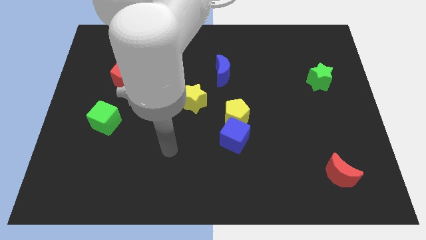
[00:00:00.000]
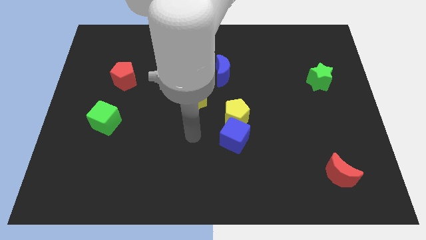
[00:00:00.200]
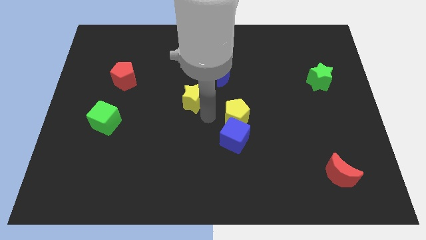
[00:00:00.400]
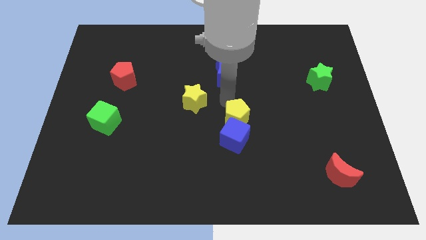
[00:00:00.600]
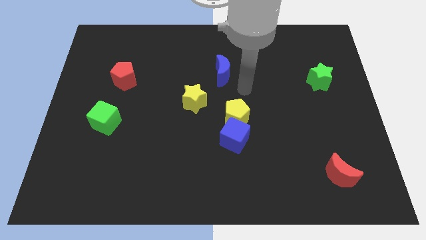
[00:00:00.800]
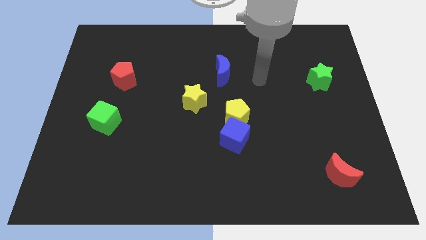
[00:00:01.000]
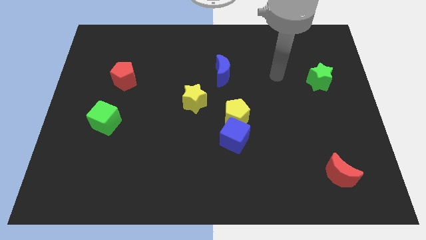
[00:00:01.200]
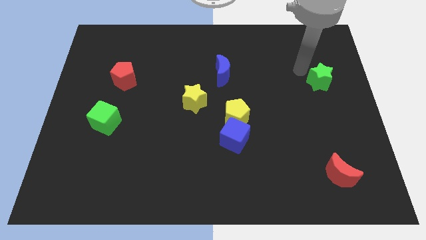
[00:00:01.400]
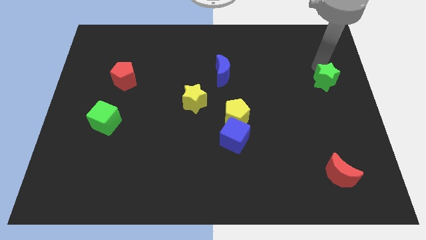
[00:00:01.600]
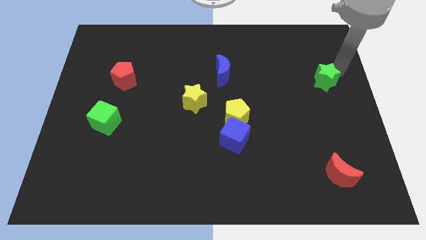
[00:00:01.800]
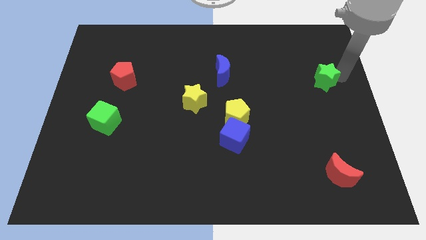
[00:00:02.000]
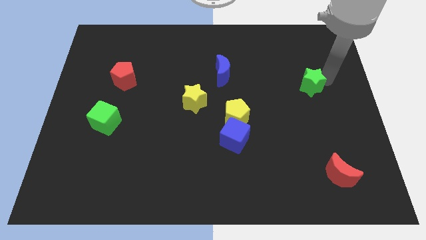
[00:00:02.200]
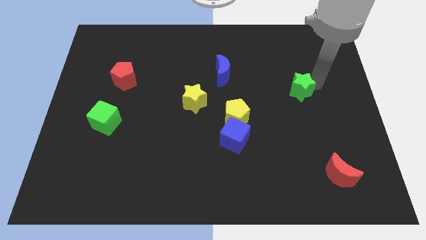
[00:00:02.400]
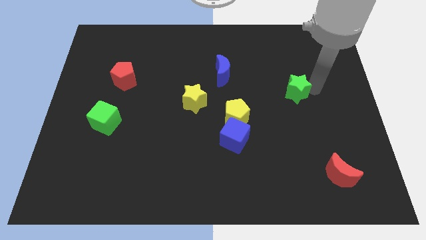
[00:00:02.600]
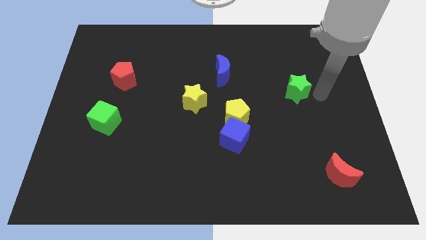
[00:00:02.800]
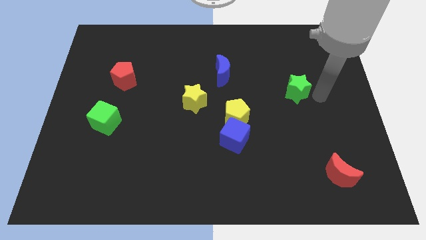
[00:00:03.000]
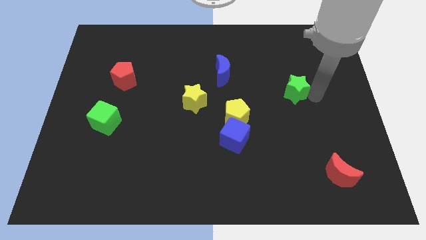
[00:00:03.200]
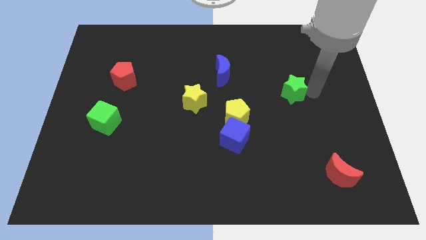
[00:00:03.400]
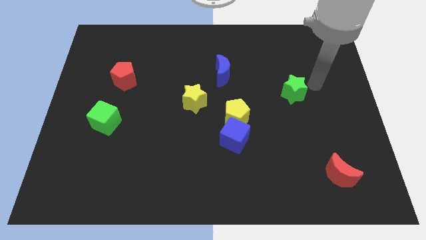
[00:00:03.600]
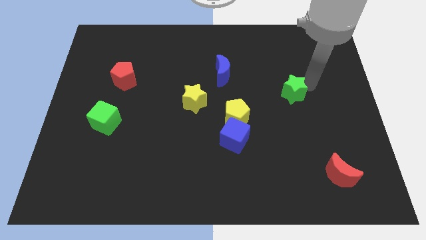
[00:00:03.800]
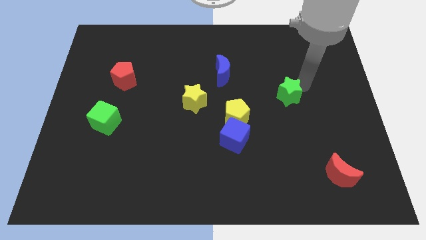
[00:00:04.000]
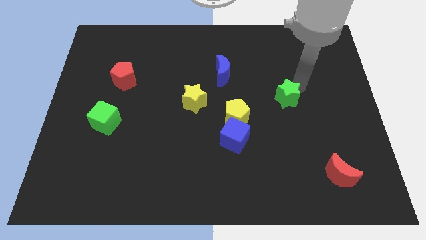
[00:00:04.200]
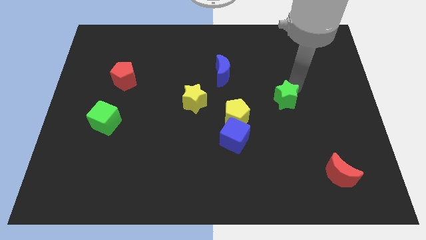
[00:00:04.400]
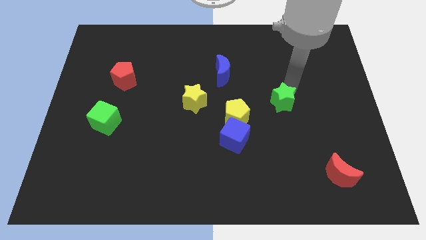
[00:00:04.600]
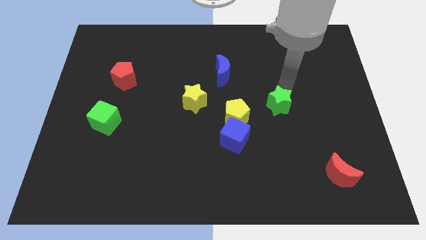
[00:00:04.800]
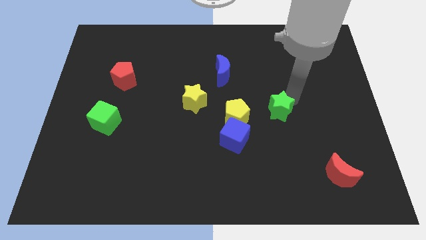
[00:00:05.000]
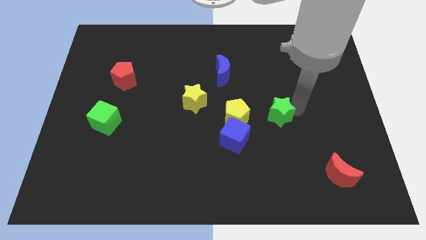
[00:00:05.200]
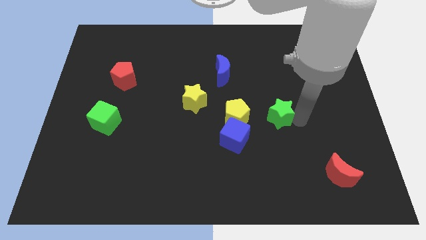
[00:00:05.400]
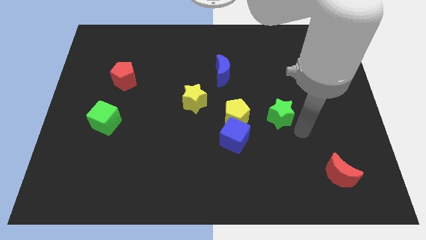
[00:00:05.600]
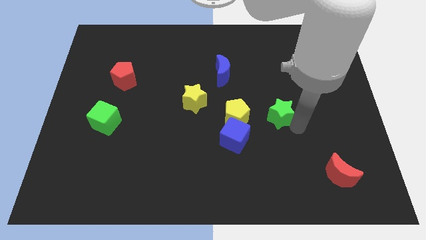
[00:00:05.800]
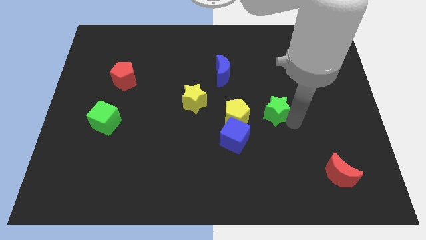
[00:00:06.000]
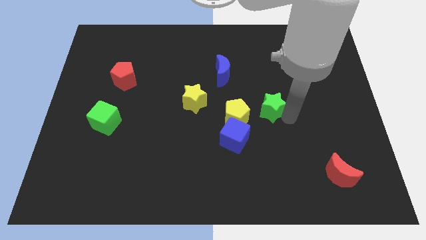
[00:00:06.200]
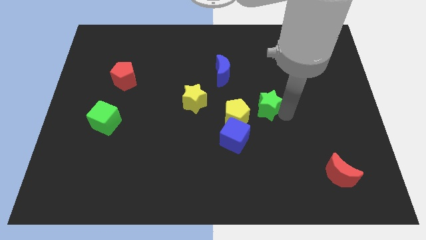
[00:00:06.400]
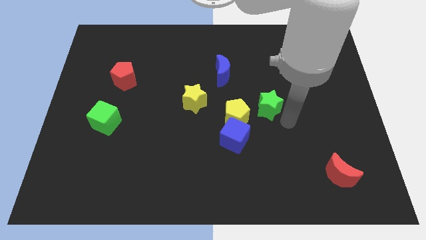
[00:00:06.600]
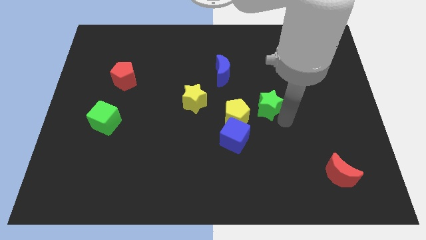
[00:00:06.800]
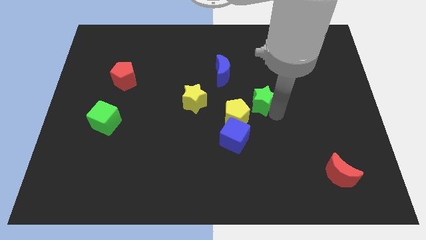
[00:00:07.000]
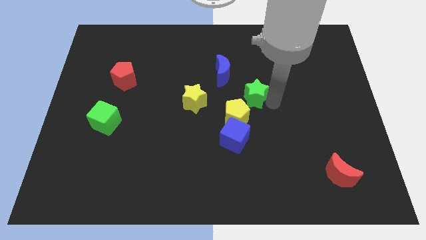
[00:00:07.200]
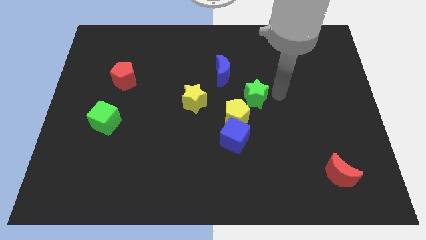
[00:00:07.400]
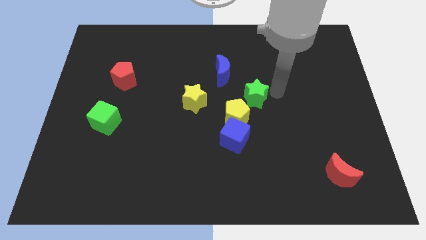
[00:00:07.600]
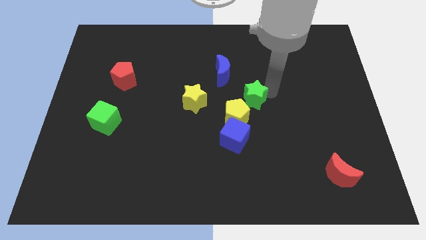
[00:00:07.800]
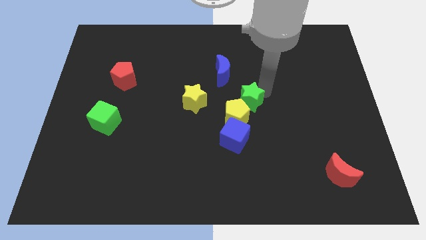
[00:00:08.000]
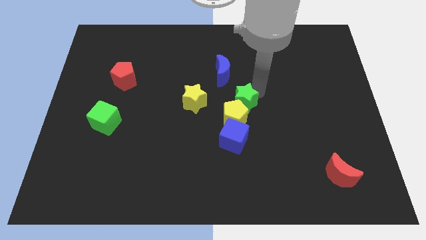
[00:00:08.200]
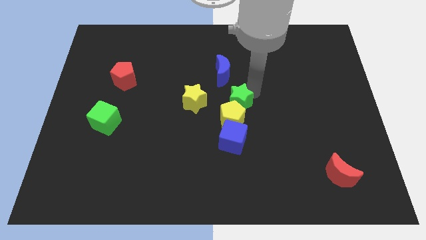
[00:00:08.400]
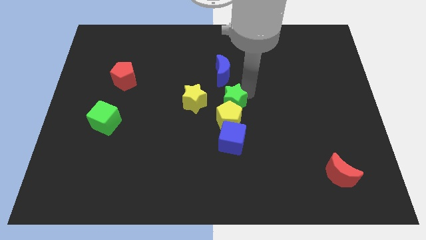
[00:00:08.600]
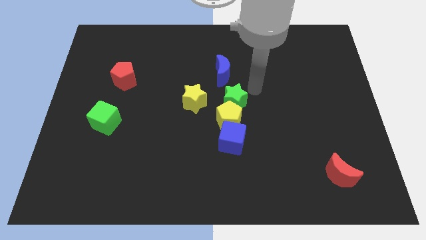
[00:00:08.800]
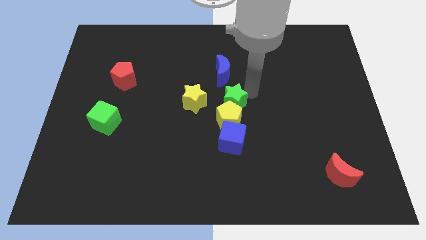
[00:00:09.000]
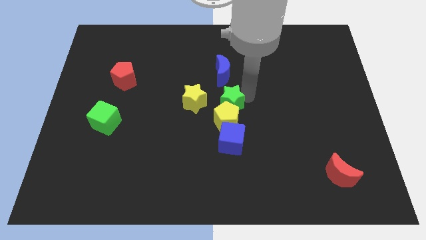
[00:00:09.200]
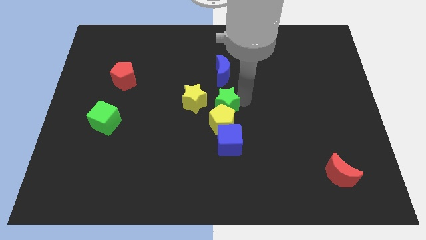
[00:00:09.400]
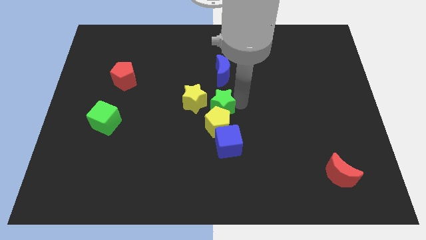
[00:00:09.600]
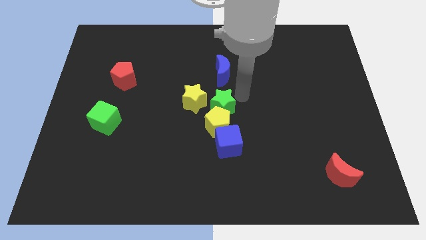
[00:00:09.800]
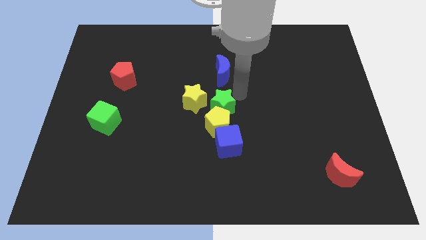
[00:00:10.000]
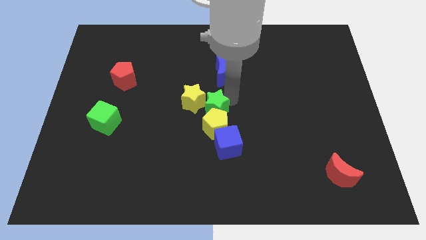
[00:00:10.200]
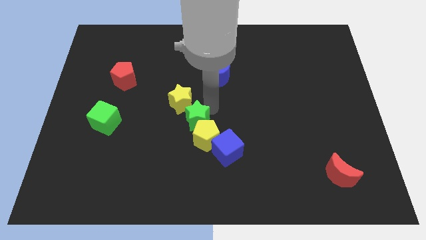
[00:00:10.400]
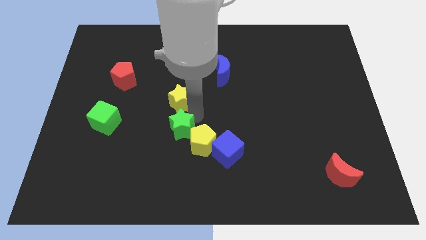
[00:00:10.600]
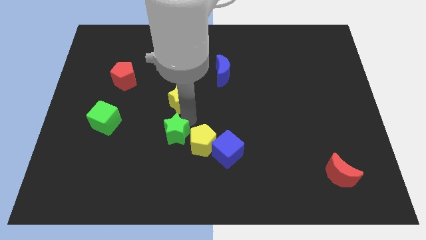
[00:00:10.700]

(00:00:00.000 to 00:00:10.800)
put the green star to the left of the blue cube

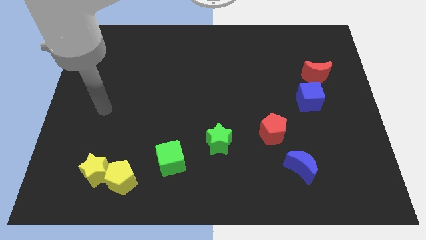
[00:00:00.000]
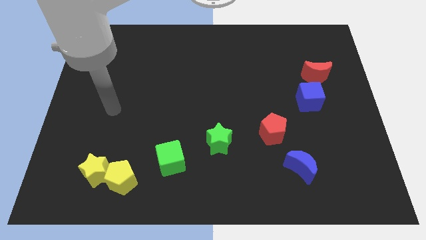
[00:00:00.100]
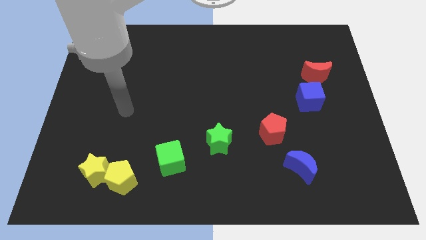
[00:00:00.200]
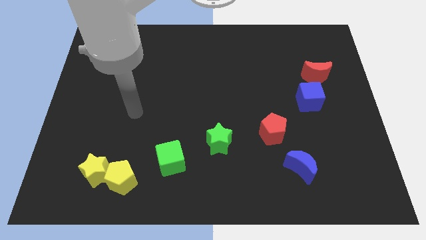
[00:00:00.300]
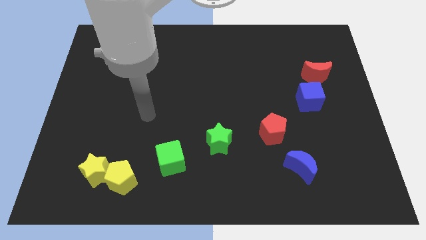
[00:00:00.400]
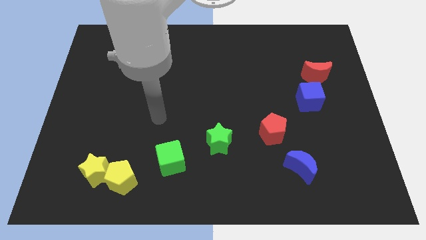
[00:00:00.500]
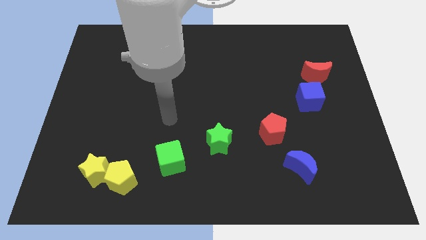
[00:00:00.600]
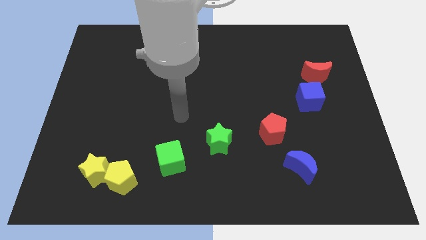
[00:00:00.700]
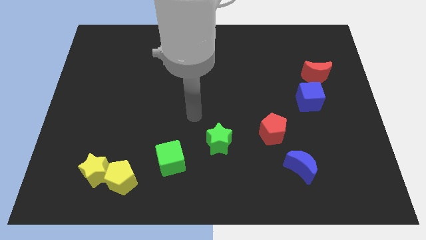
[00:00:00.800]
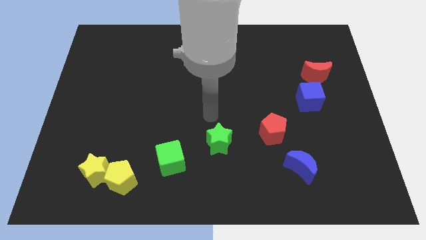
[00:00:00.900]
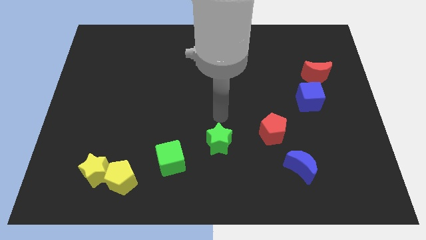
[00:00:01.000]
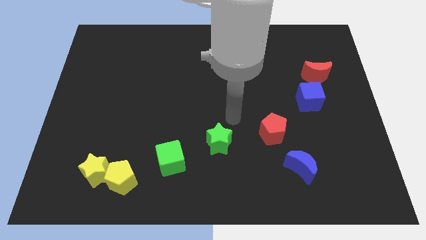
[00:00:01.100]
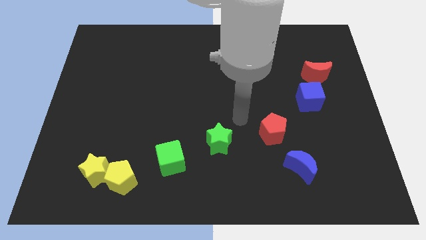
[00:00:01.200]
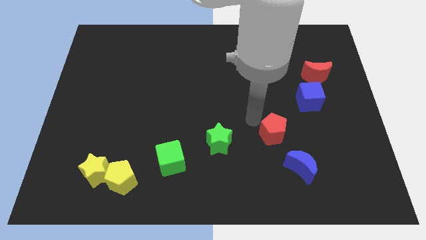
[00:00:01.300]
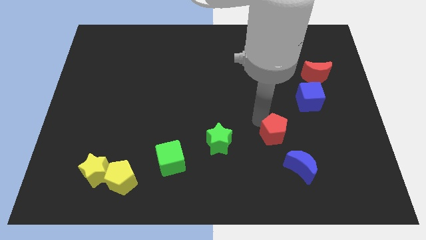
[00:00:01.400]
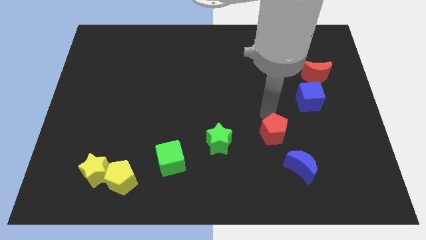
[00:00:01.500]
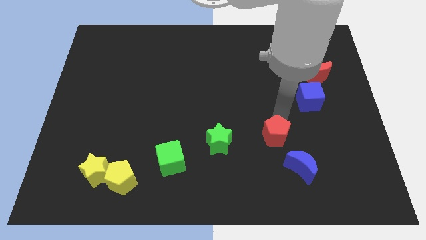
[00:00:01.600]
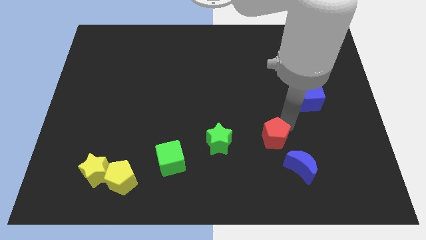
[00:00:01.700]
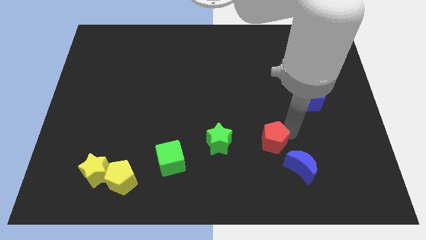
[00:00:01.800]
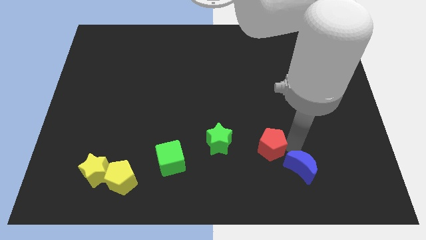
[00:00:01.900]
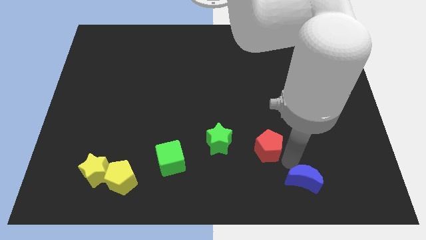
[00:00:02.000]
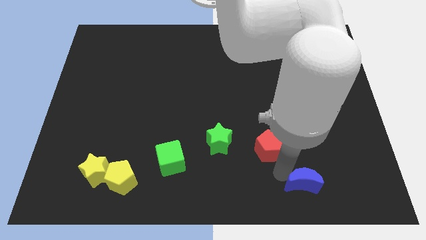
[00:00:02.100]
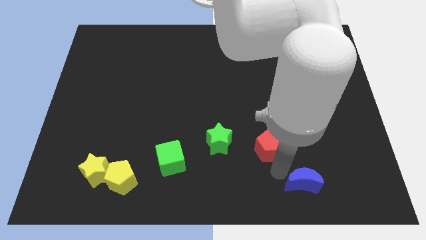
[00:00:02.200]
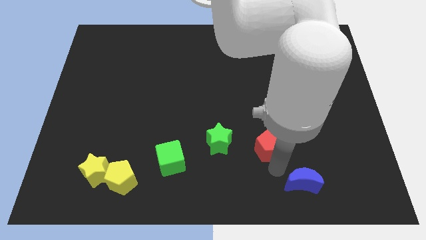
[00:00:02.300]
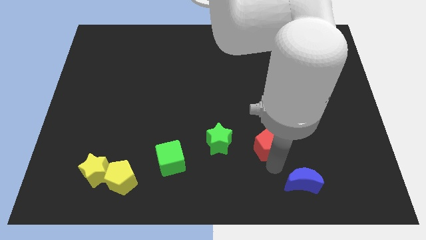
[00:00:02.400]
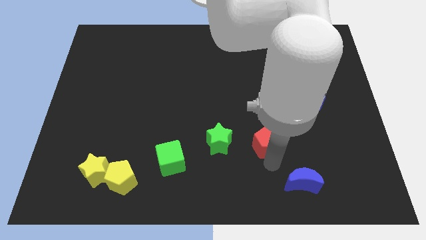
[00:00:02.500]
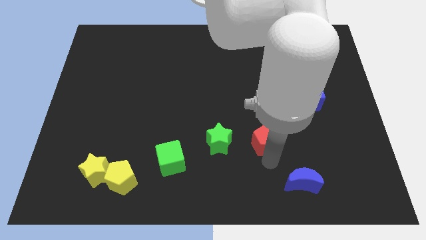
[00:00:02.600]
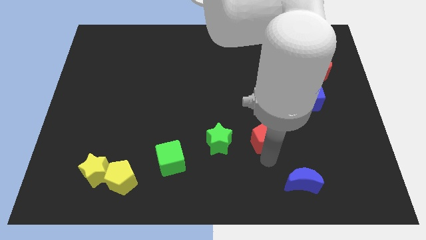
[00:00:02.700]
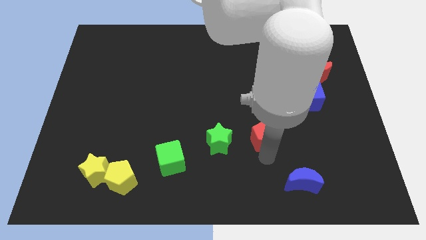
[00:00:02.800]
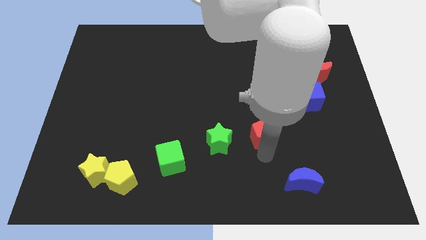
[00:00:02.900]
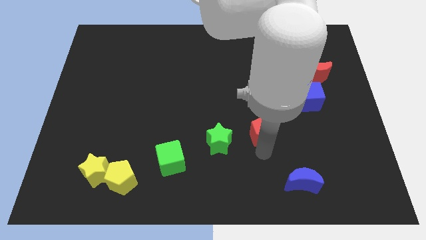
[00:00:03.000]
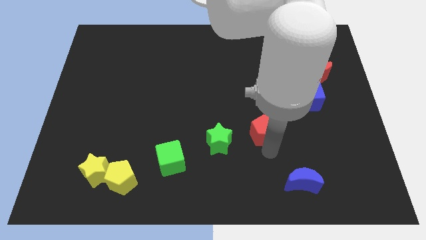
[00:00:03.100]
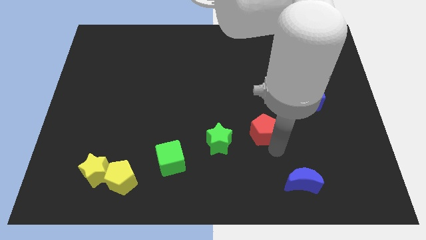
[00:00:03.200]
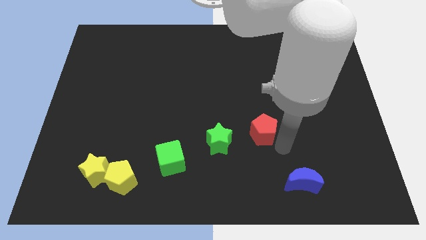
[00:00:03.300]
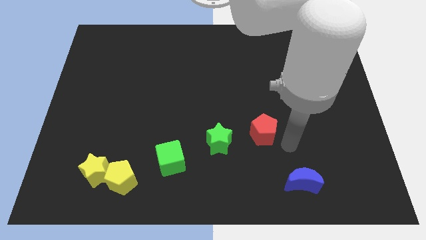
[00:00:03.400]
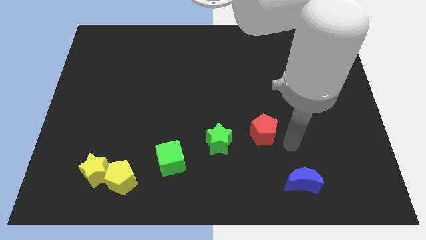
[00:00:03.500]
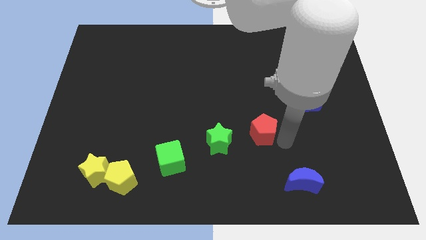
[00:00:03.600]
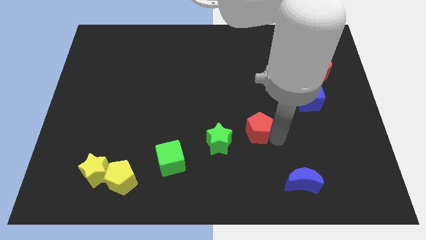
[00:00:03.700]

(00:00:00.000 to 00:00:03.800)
put the red pentagon to the top right side of the green star
